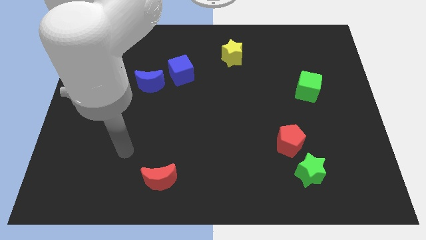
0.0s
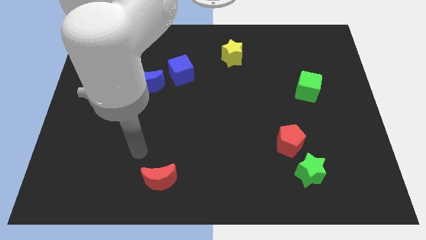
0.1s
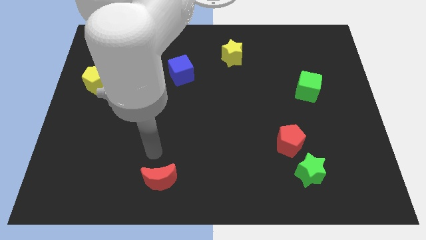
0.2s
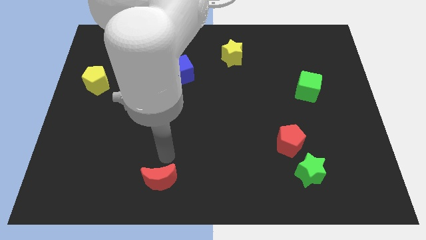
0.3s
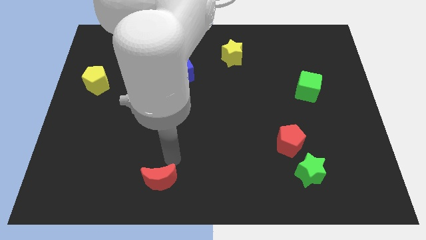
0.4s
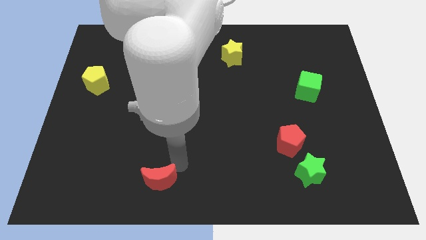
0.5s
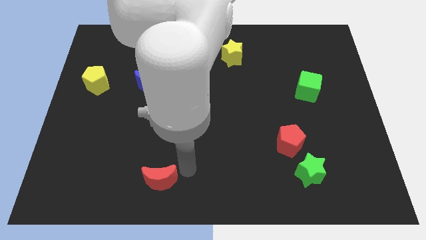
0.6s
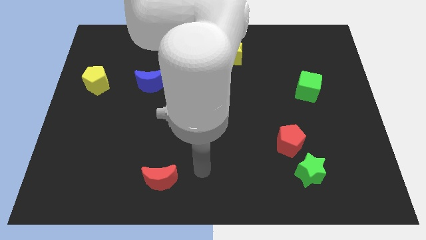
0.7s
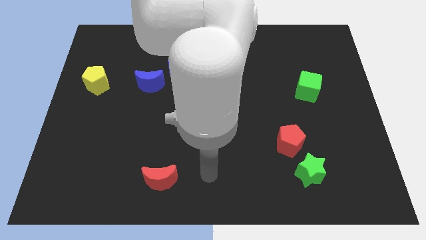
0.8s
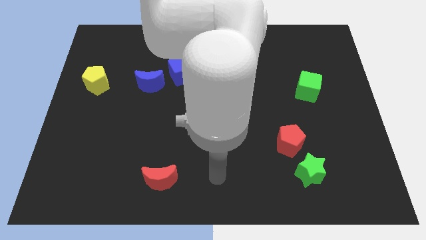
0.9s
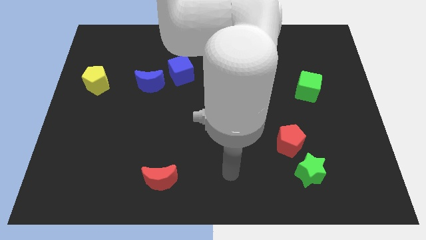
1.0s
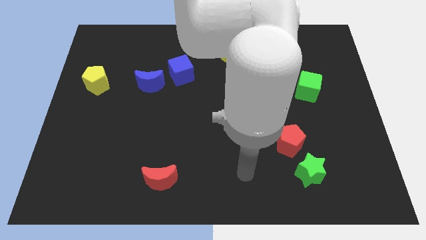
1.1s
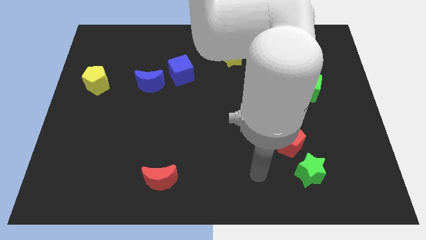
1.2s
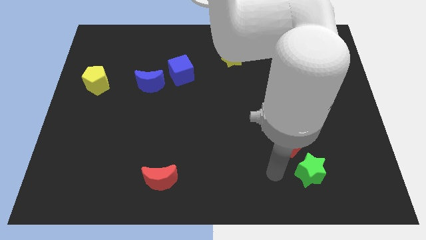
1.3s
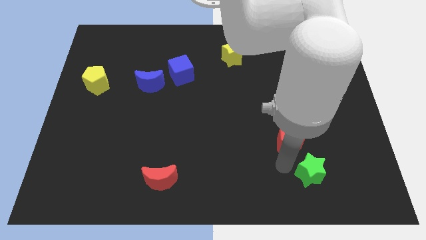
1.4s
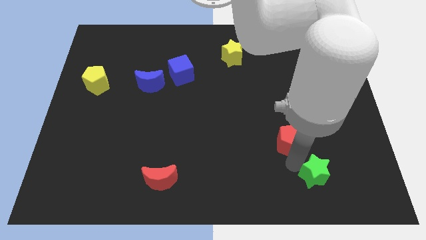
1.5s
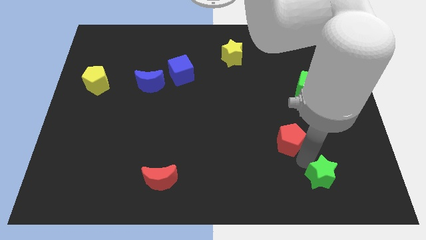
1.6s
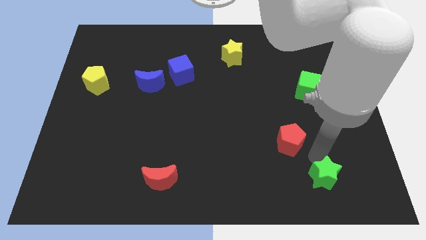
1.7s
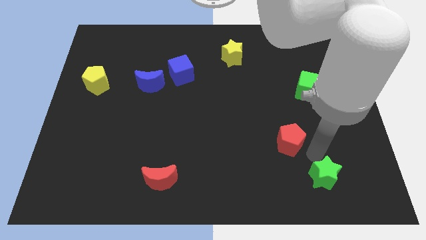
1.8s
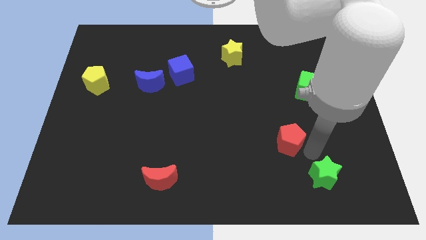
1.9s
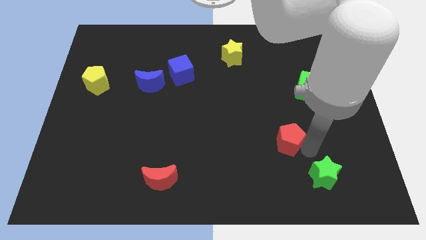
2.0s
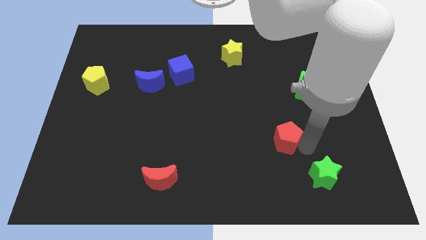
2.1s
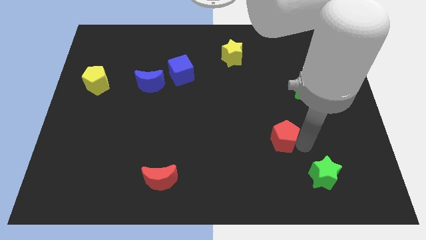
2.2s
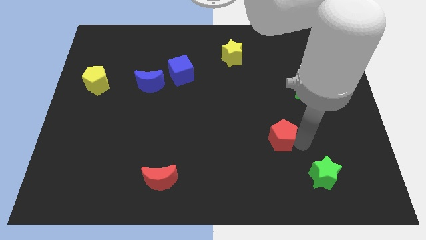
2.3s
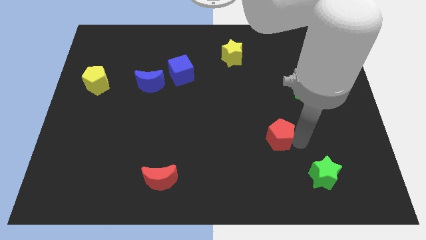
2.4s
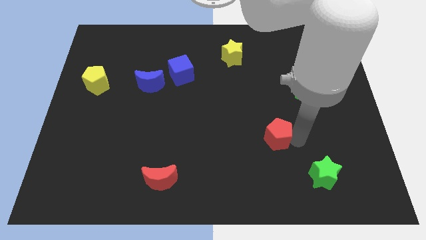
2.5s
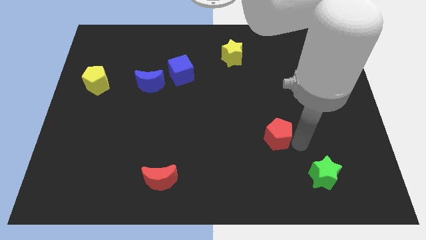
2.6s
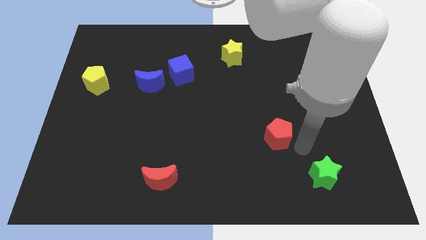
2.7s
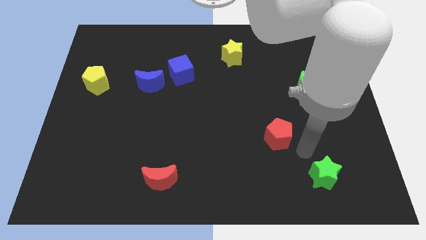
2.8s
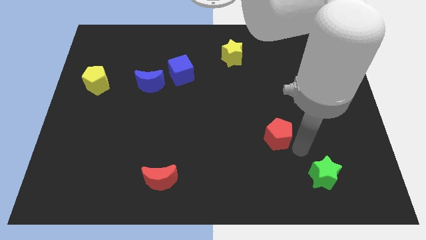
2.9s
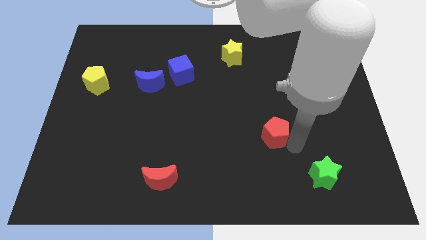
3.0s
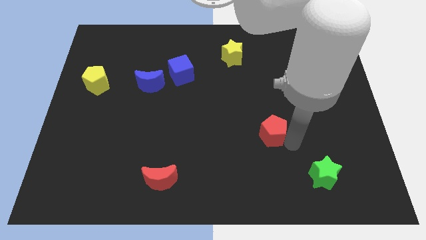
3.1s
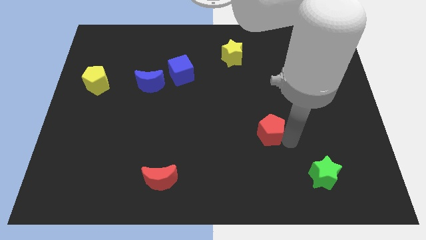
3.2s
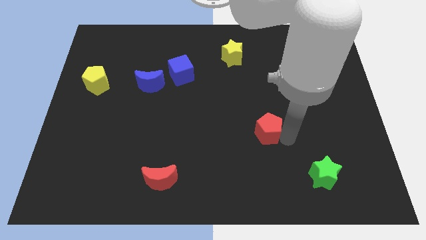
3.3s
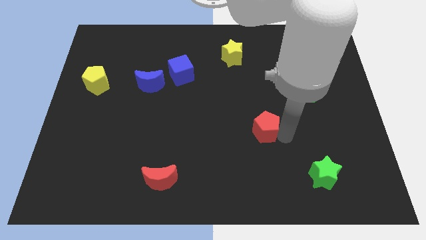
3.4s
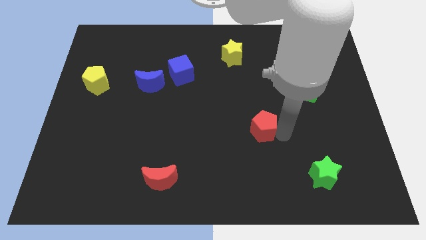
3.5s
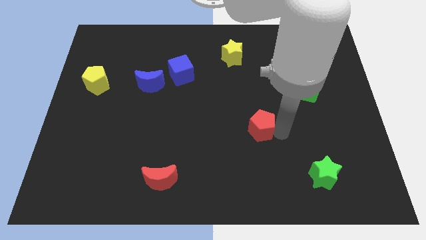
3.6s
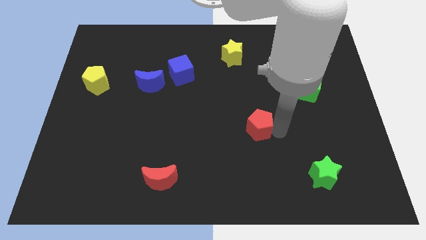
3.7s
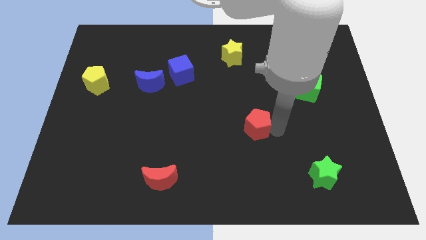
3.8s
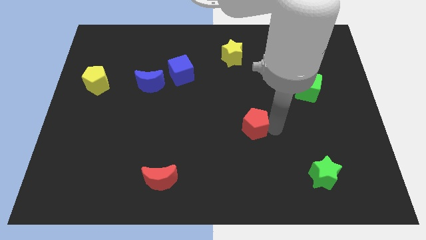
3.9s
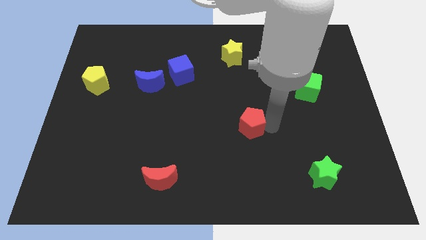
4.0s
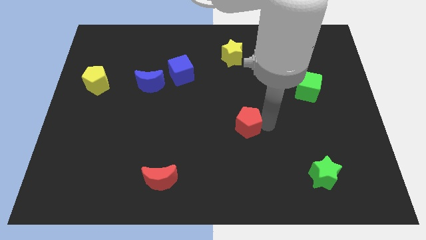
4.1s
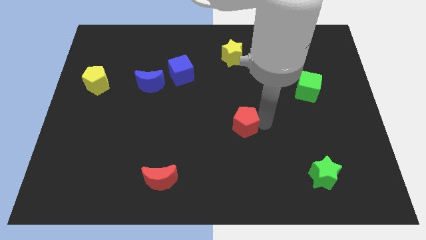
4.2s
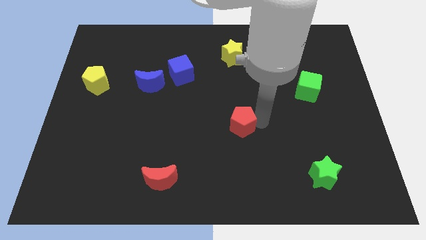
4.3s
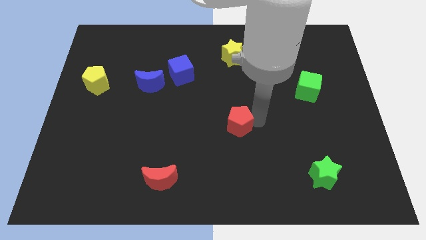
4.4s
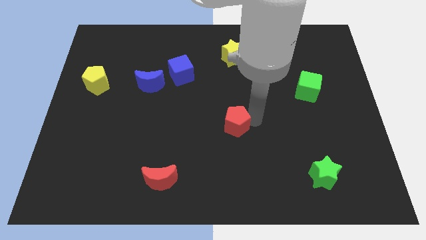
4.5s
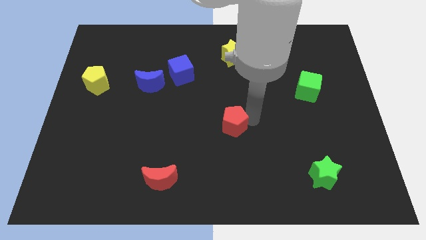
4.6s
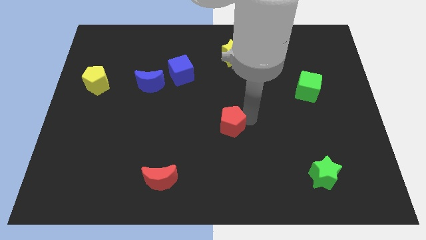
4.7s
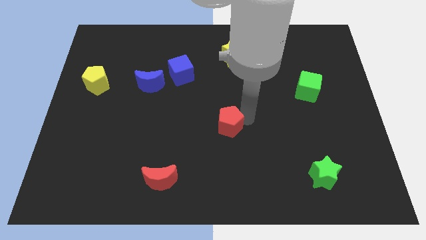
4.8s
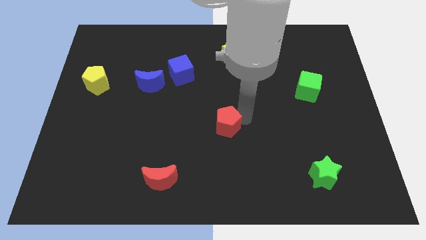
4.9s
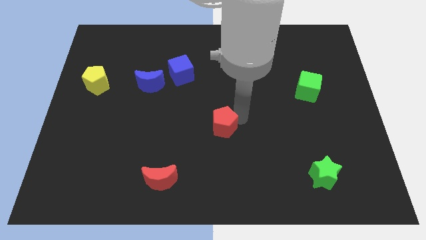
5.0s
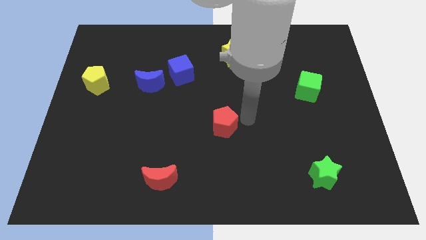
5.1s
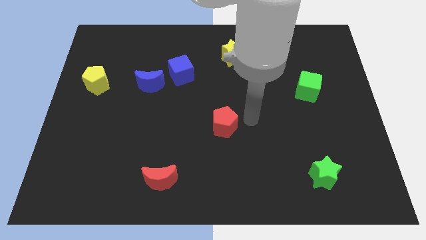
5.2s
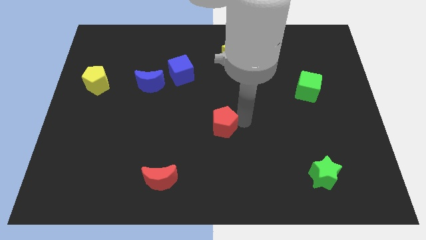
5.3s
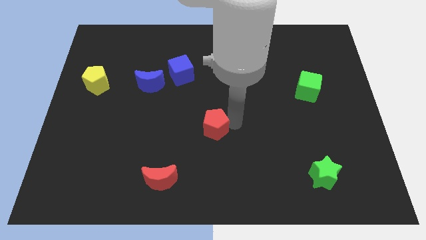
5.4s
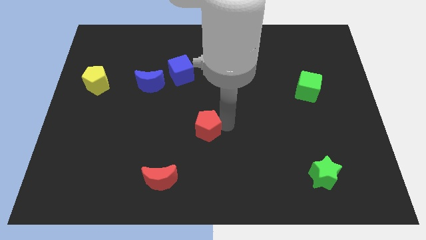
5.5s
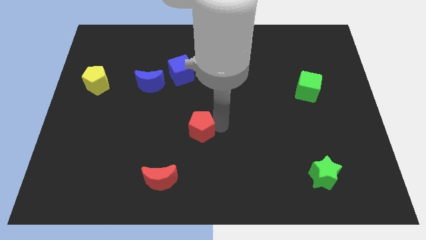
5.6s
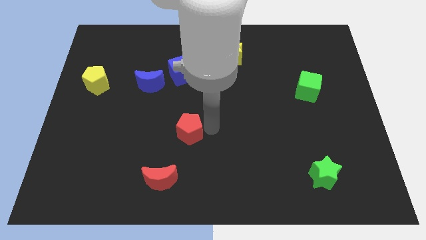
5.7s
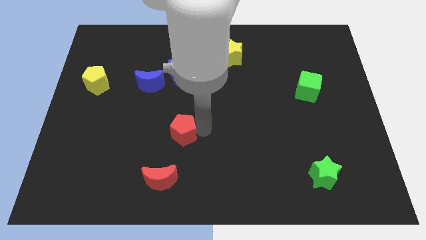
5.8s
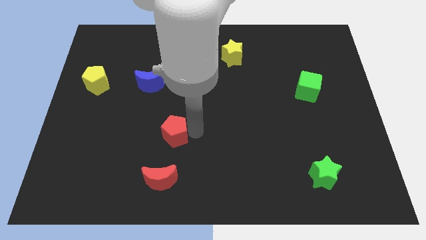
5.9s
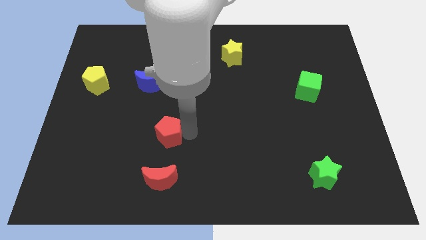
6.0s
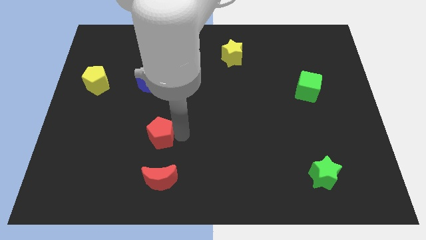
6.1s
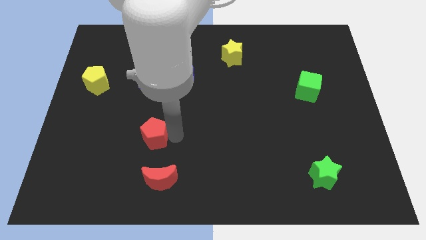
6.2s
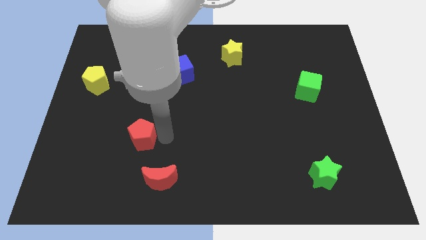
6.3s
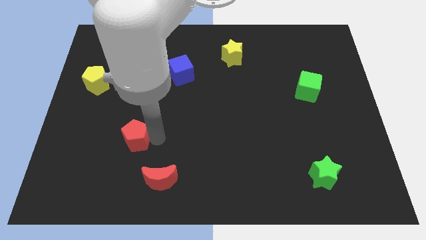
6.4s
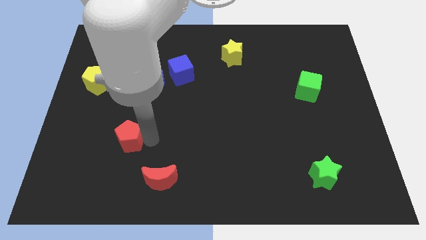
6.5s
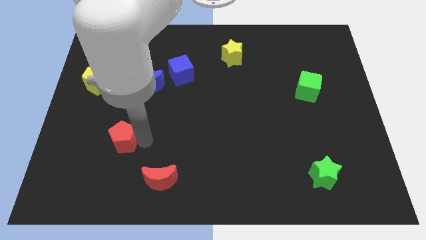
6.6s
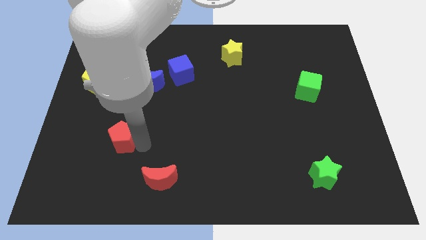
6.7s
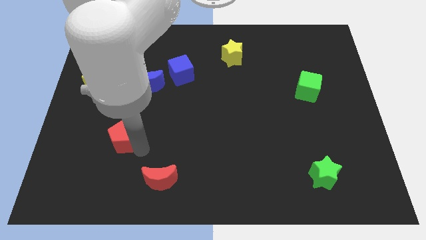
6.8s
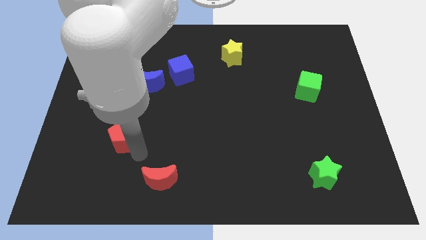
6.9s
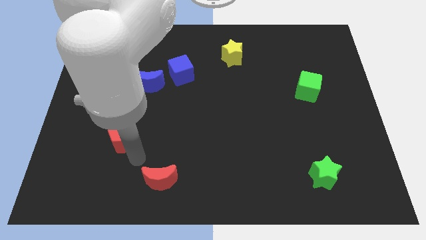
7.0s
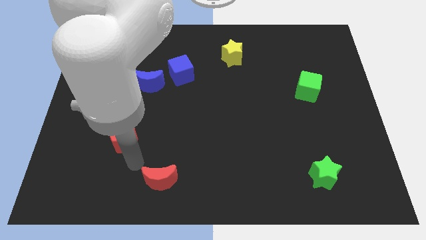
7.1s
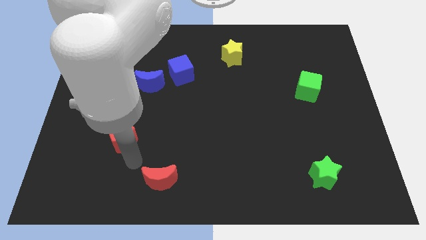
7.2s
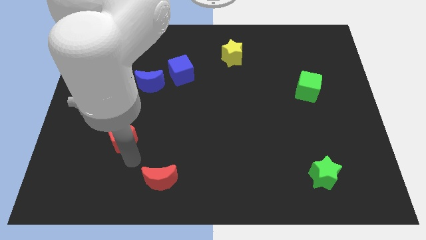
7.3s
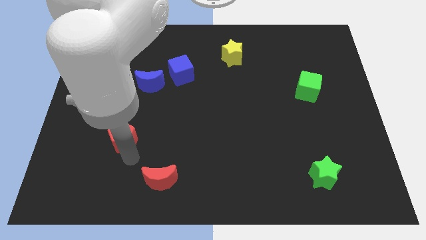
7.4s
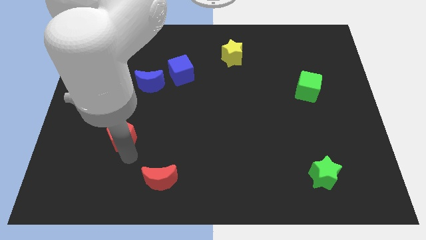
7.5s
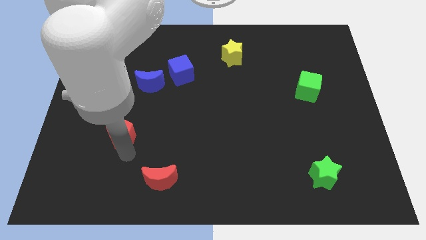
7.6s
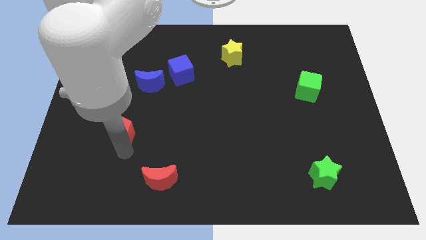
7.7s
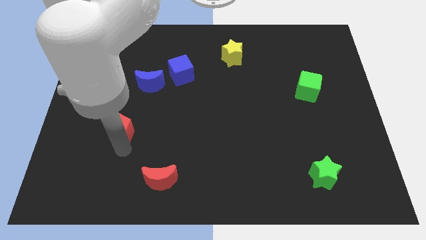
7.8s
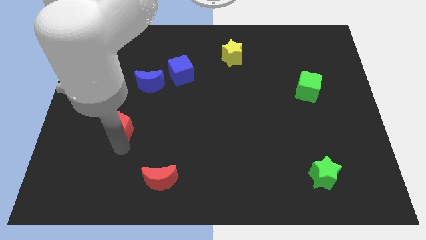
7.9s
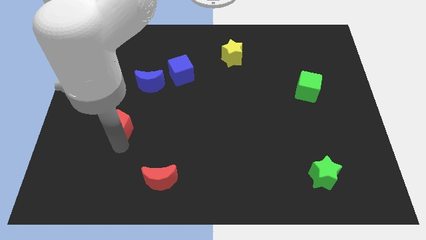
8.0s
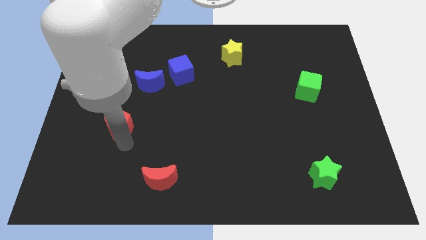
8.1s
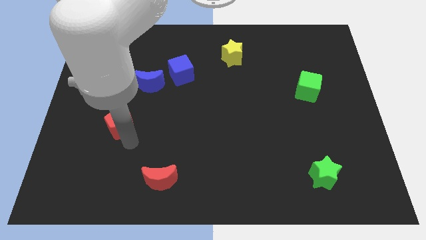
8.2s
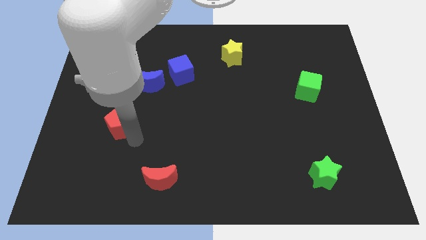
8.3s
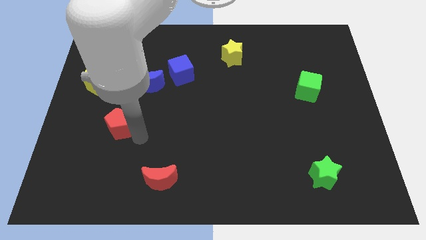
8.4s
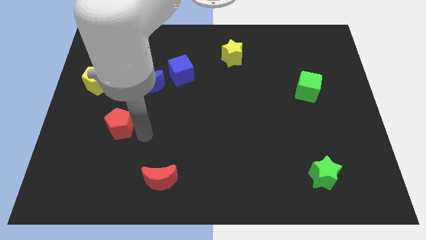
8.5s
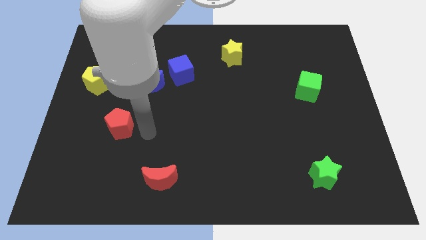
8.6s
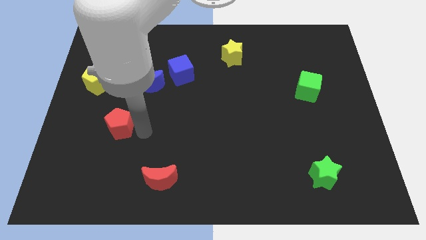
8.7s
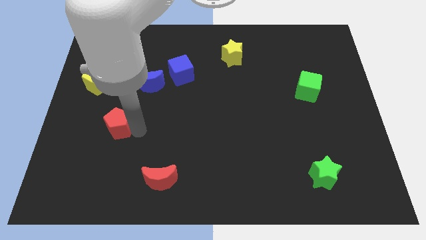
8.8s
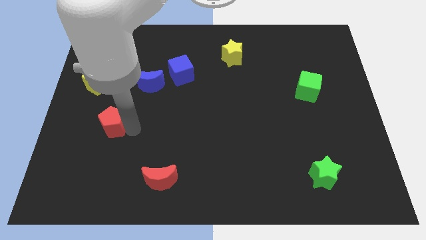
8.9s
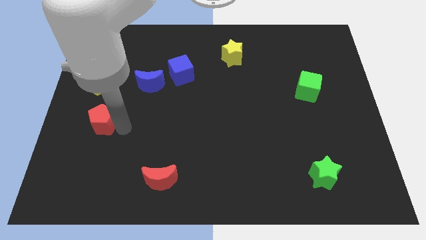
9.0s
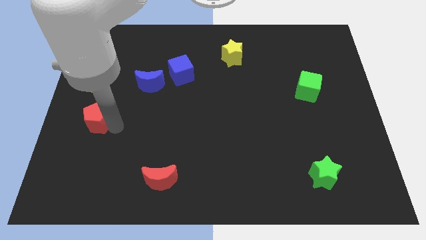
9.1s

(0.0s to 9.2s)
put the red pentagon to the left side of the board
